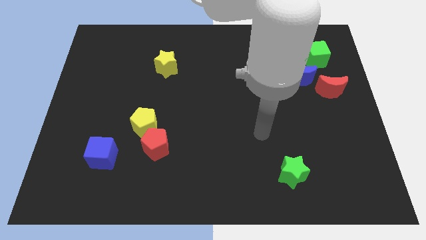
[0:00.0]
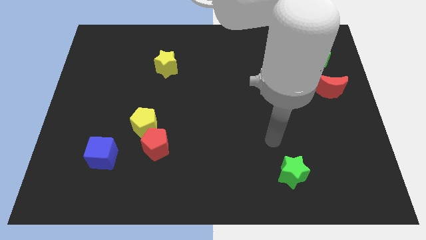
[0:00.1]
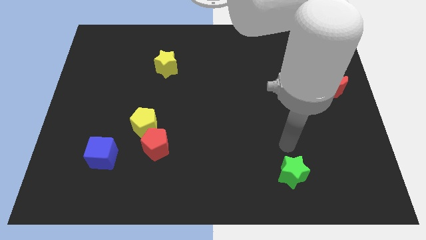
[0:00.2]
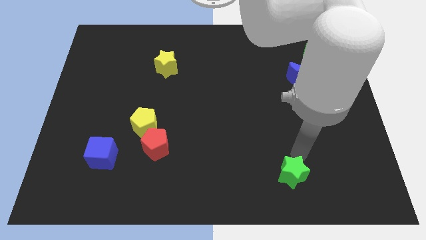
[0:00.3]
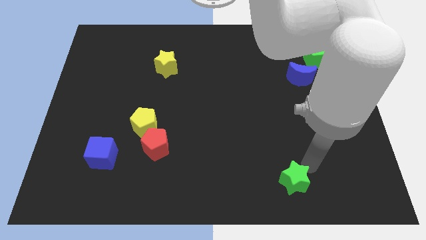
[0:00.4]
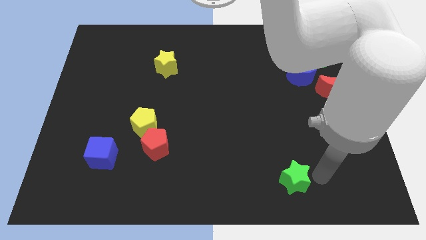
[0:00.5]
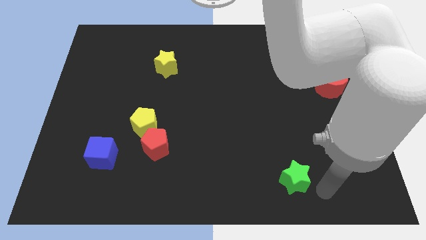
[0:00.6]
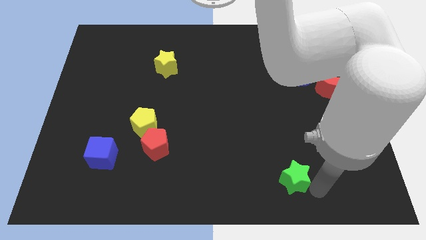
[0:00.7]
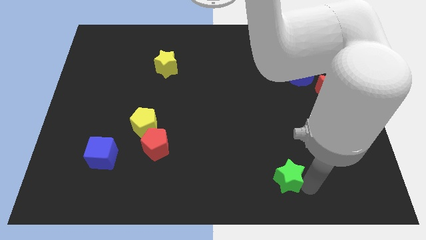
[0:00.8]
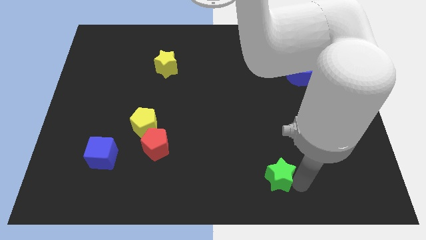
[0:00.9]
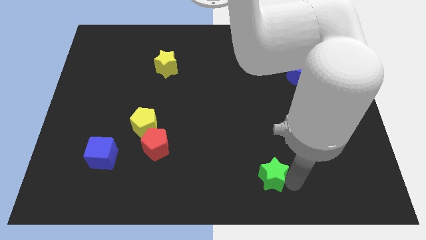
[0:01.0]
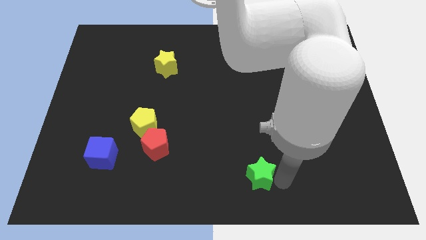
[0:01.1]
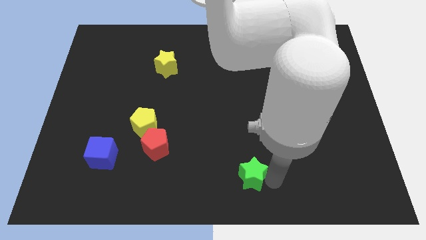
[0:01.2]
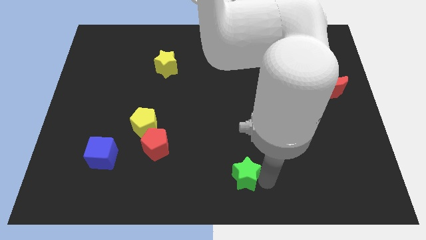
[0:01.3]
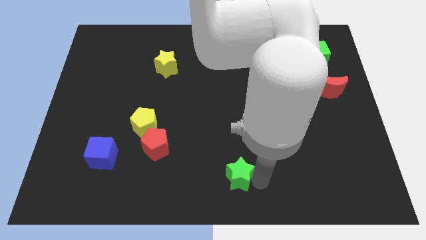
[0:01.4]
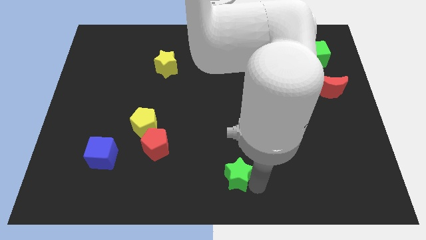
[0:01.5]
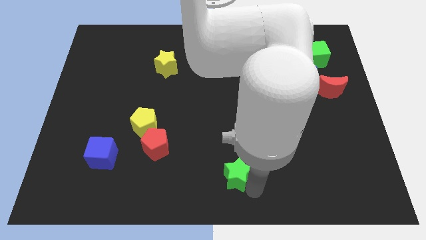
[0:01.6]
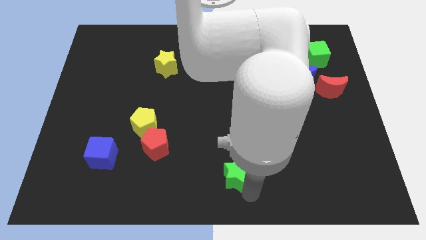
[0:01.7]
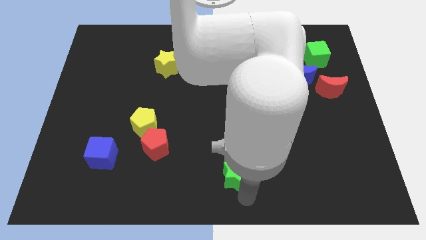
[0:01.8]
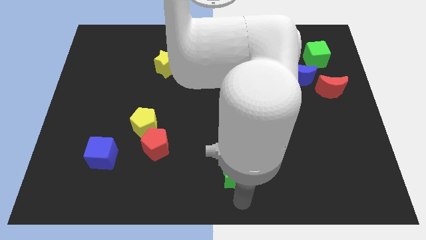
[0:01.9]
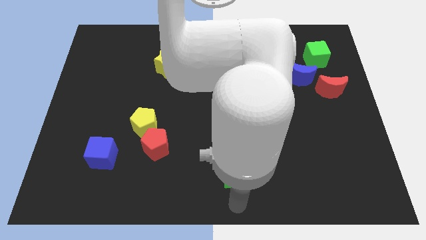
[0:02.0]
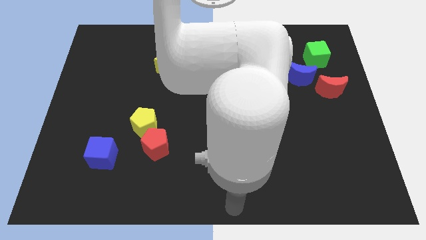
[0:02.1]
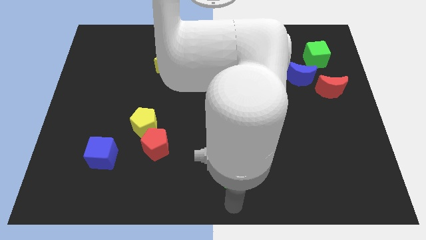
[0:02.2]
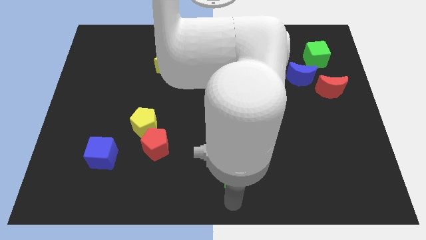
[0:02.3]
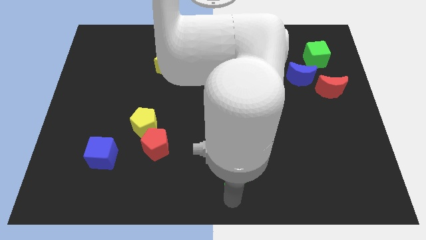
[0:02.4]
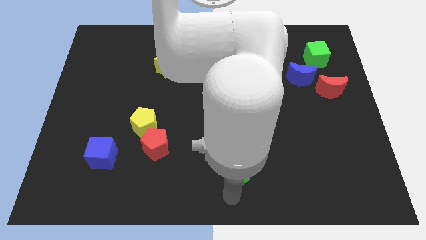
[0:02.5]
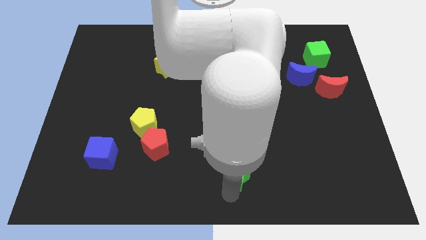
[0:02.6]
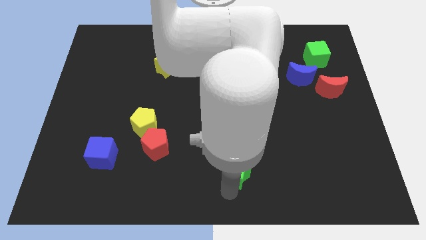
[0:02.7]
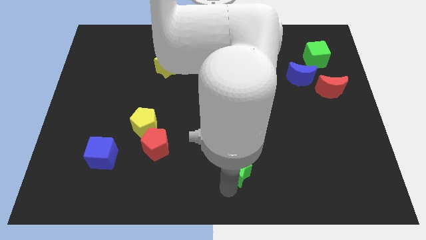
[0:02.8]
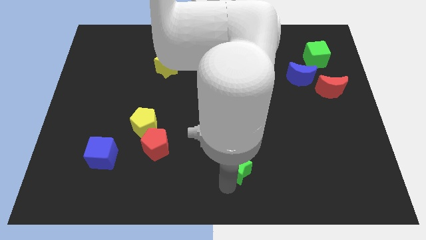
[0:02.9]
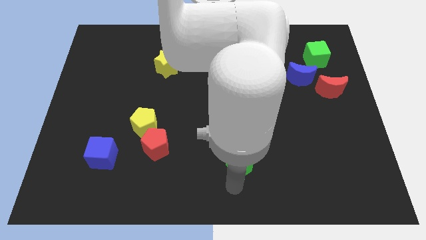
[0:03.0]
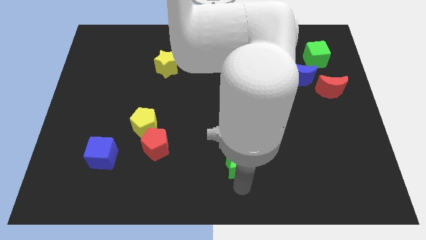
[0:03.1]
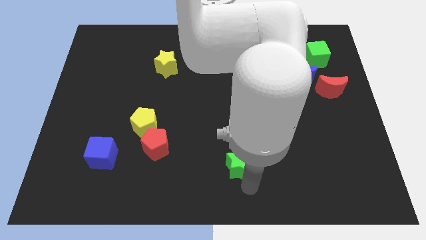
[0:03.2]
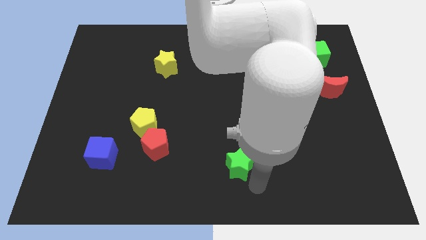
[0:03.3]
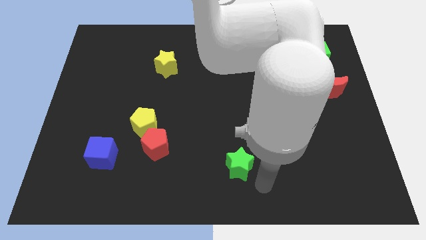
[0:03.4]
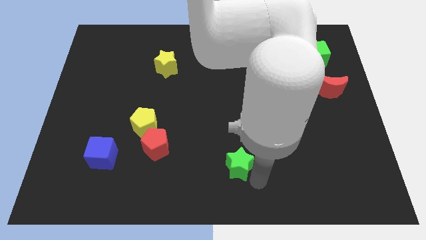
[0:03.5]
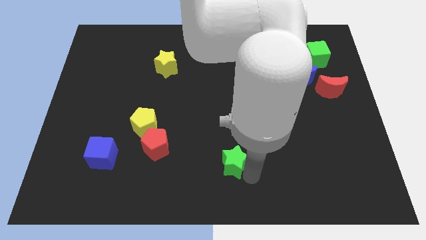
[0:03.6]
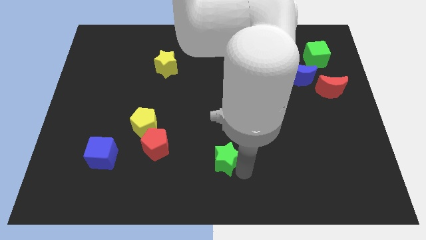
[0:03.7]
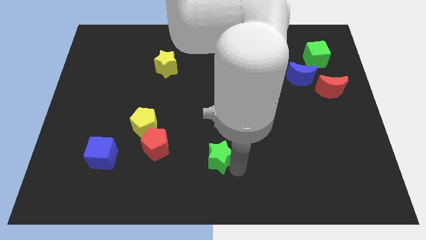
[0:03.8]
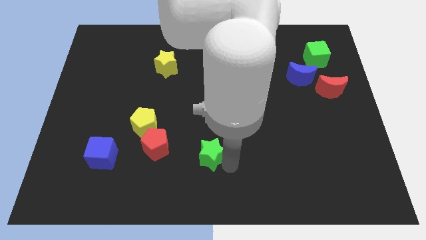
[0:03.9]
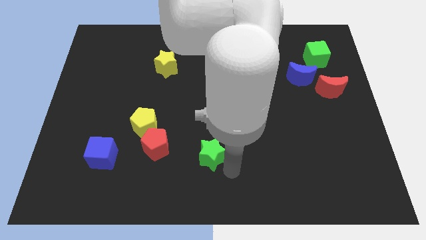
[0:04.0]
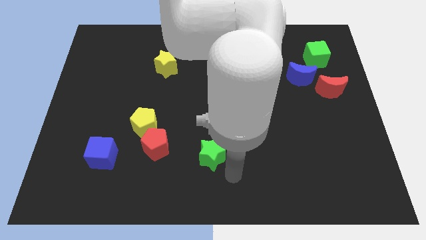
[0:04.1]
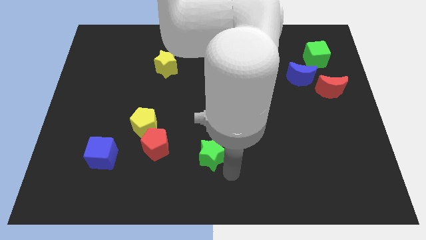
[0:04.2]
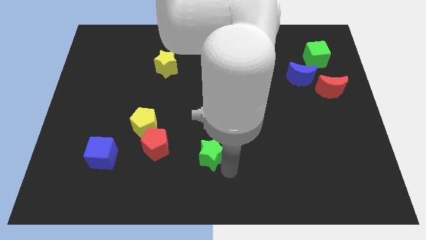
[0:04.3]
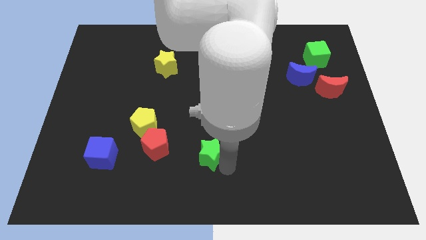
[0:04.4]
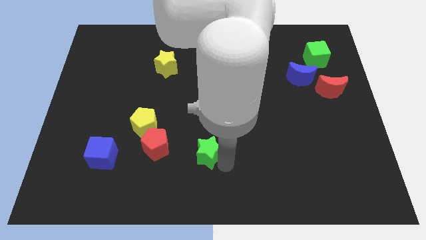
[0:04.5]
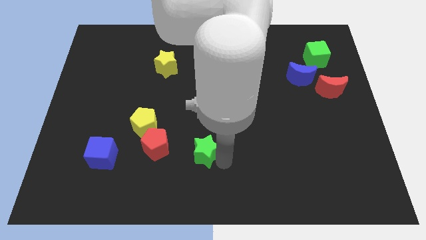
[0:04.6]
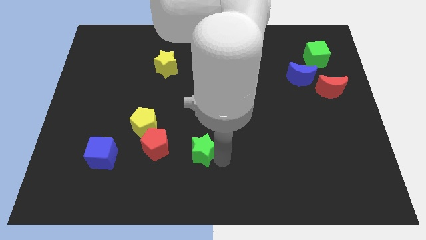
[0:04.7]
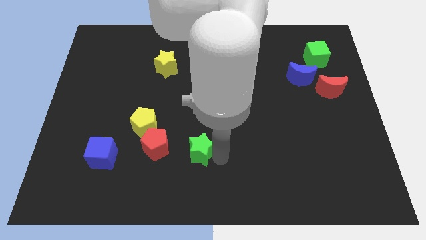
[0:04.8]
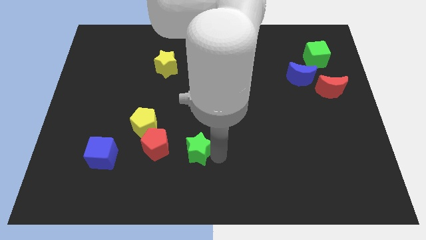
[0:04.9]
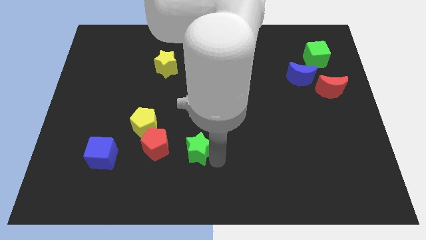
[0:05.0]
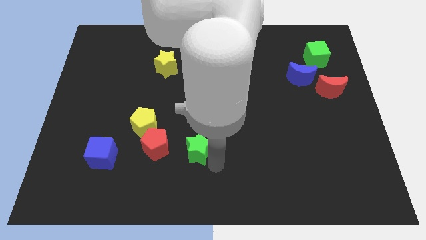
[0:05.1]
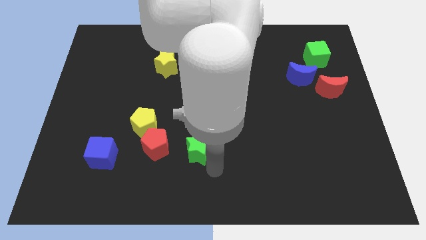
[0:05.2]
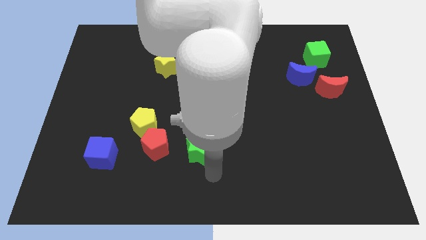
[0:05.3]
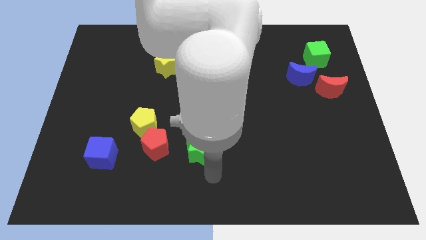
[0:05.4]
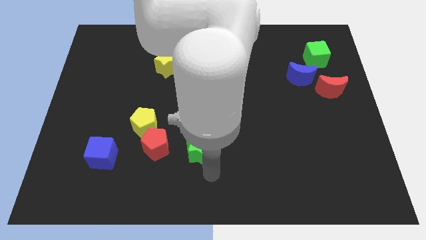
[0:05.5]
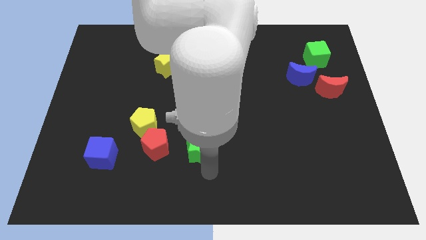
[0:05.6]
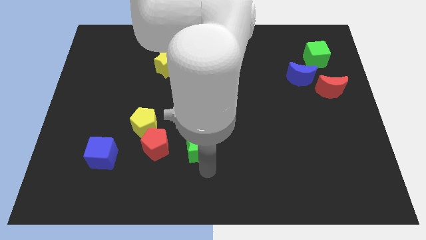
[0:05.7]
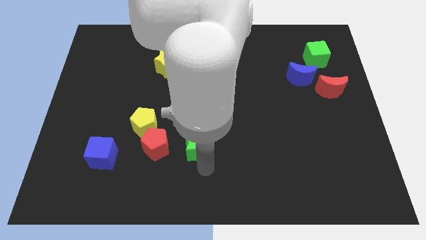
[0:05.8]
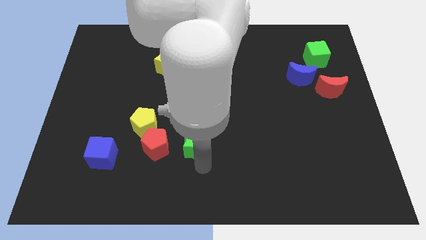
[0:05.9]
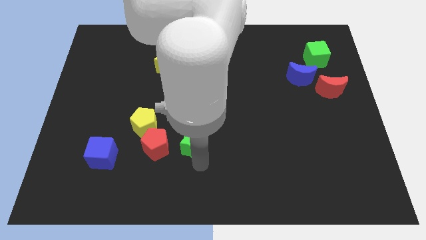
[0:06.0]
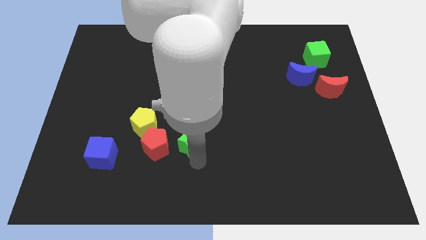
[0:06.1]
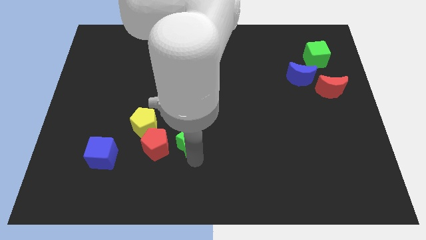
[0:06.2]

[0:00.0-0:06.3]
push the green star just right of the yellow pentagon

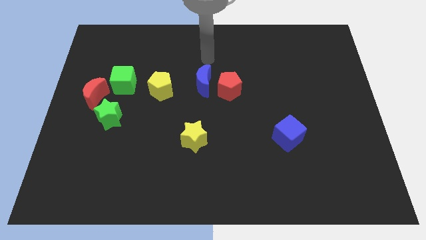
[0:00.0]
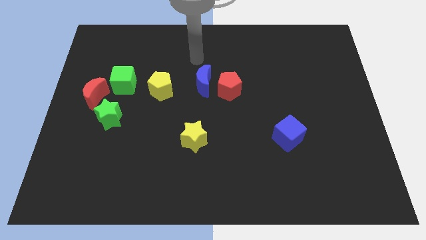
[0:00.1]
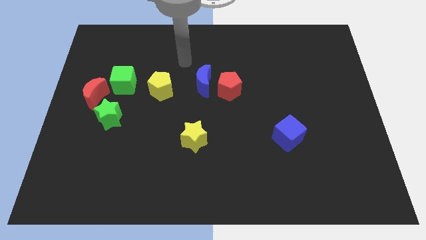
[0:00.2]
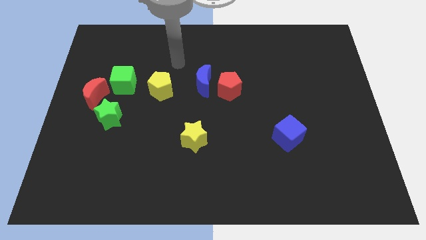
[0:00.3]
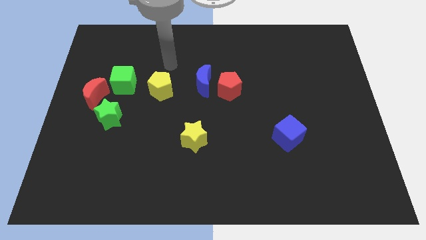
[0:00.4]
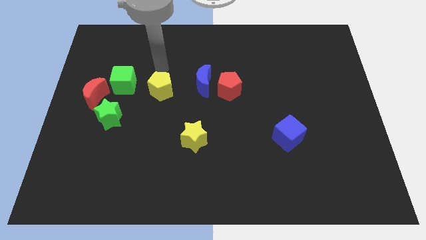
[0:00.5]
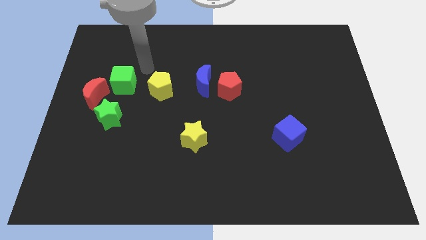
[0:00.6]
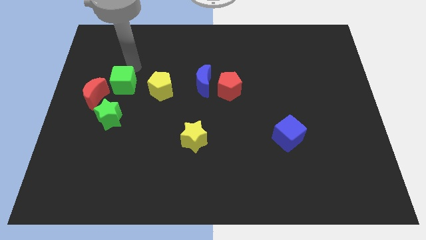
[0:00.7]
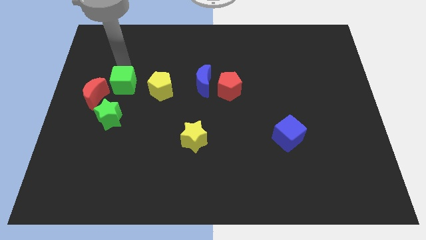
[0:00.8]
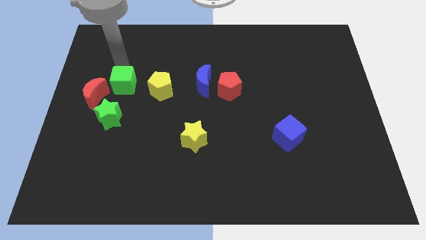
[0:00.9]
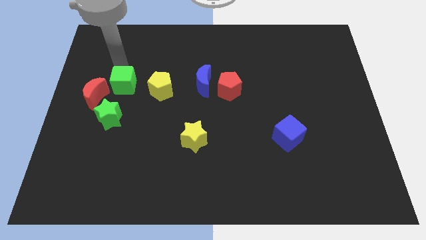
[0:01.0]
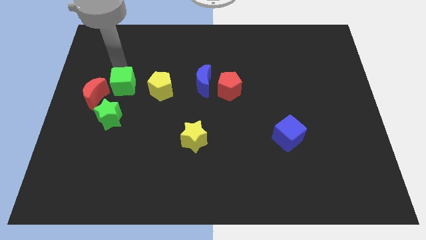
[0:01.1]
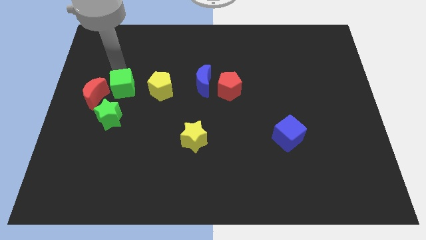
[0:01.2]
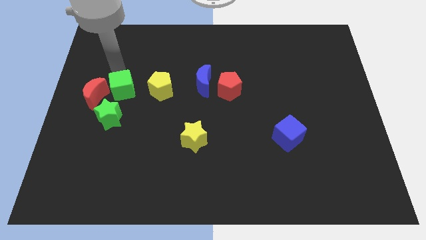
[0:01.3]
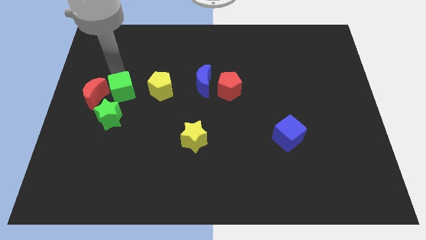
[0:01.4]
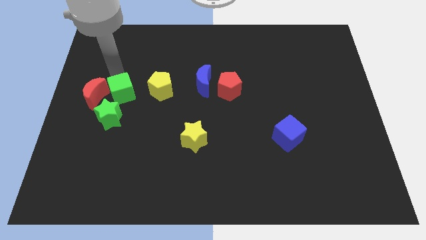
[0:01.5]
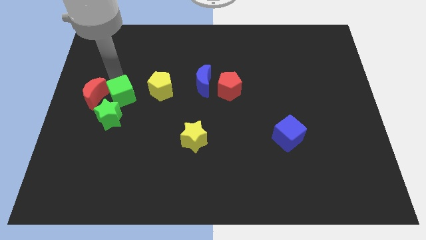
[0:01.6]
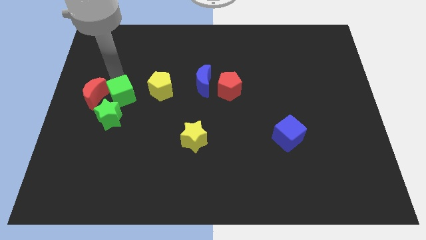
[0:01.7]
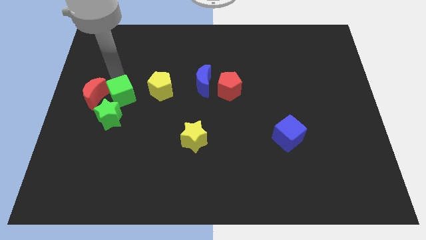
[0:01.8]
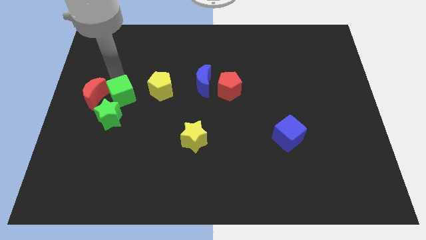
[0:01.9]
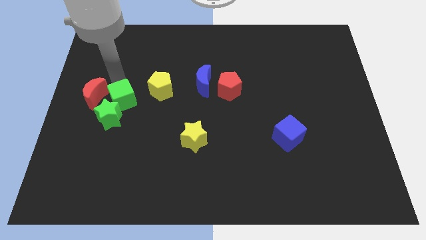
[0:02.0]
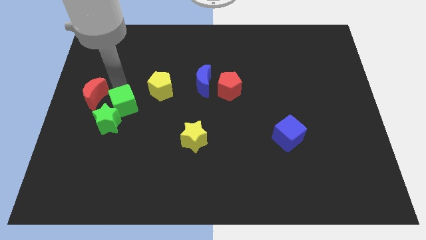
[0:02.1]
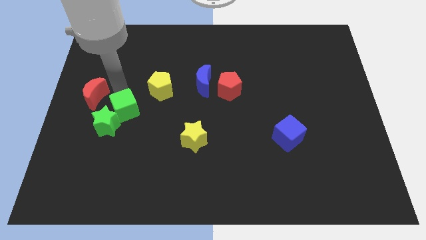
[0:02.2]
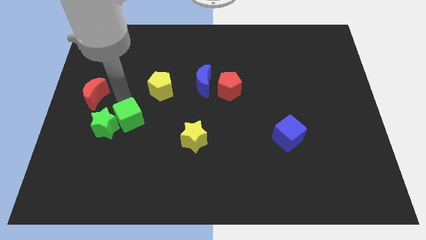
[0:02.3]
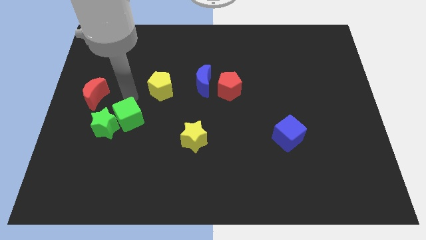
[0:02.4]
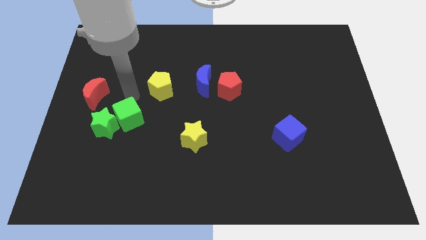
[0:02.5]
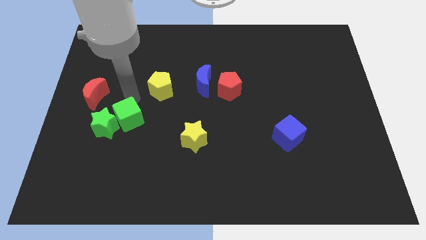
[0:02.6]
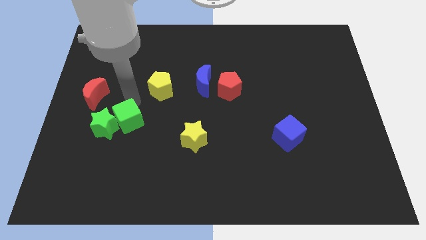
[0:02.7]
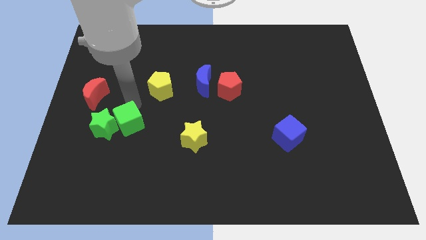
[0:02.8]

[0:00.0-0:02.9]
push the green cube to the bottom right side of the green star
